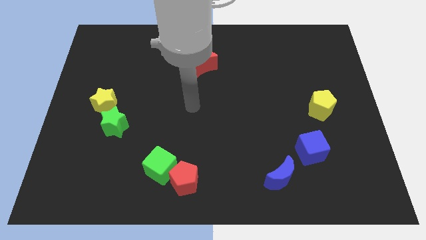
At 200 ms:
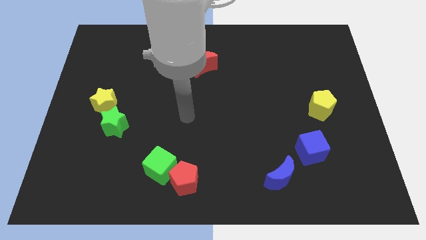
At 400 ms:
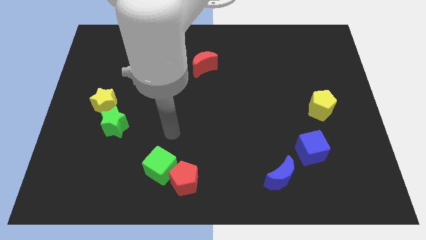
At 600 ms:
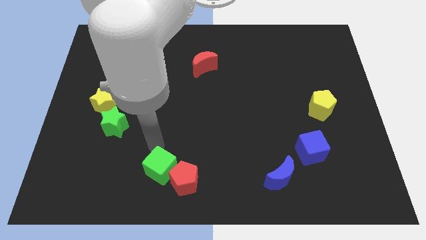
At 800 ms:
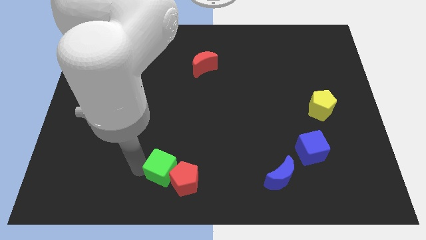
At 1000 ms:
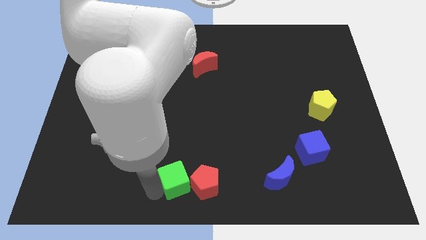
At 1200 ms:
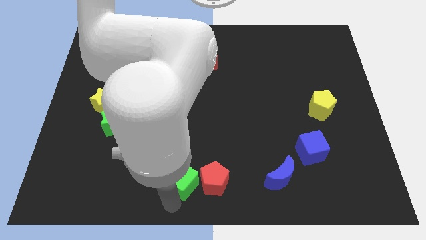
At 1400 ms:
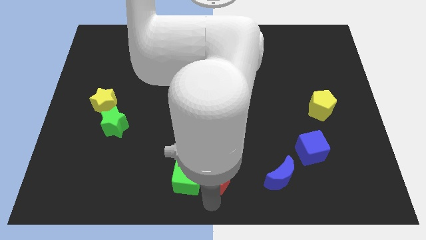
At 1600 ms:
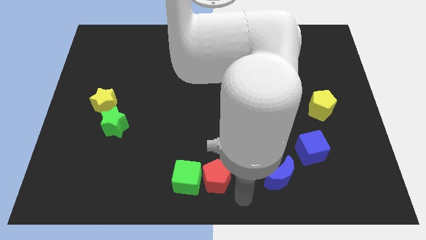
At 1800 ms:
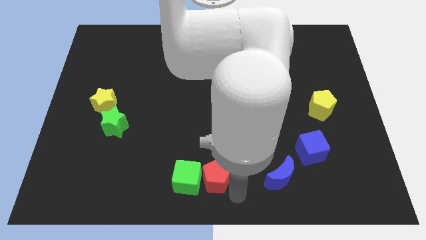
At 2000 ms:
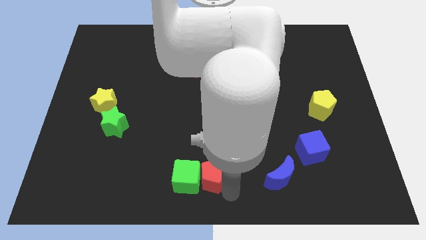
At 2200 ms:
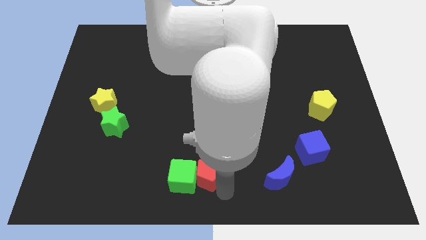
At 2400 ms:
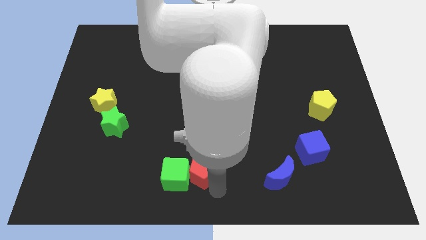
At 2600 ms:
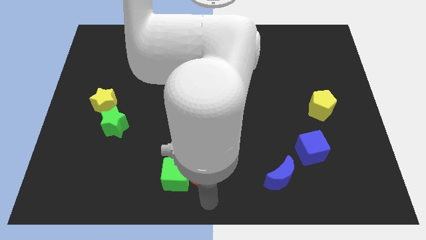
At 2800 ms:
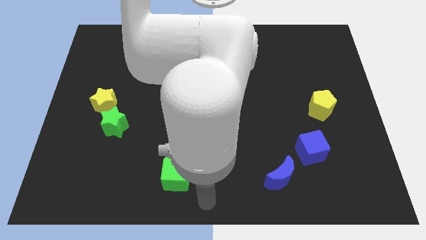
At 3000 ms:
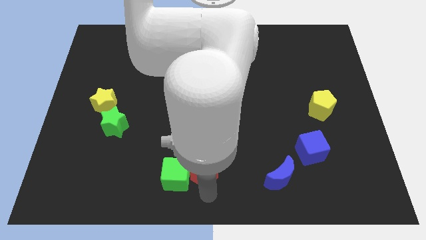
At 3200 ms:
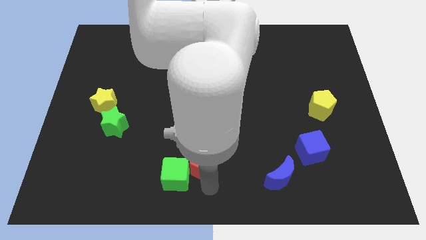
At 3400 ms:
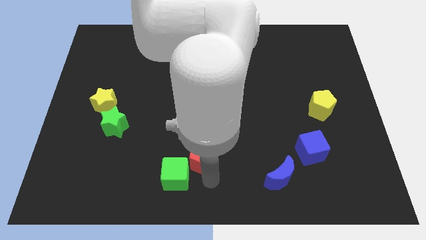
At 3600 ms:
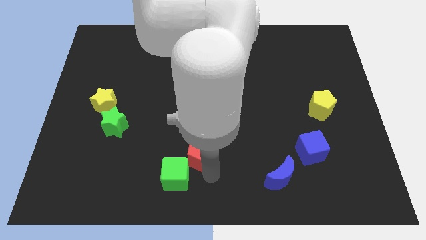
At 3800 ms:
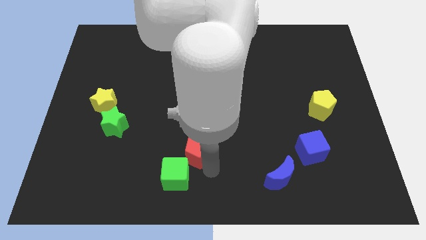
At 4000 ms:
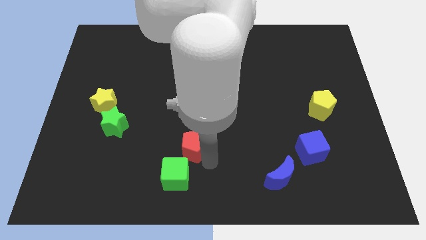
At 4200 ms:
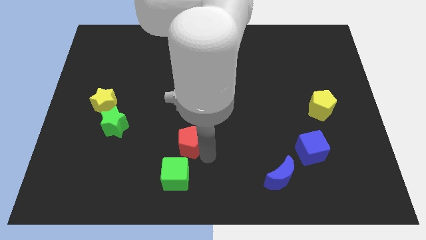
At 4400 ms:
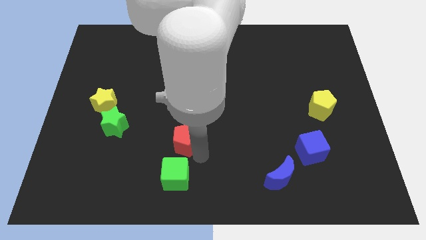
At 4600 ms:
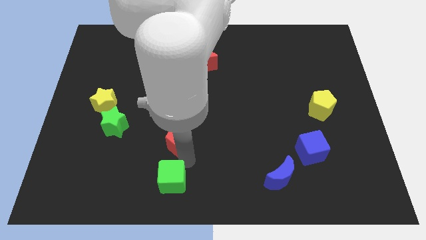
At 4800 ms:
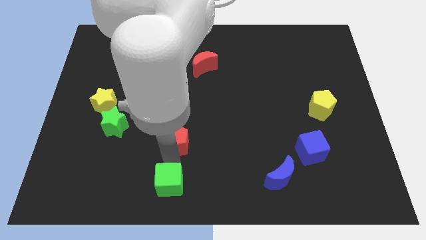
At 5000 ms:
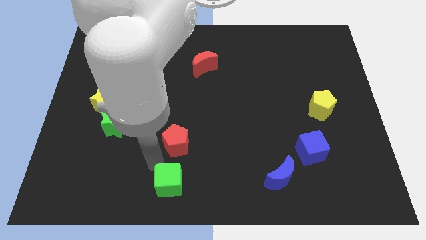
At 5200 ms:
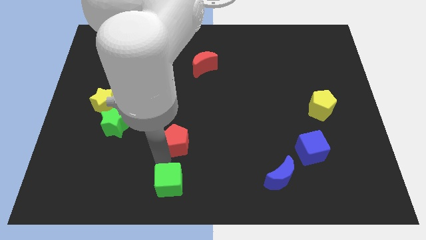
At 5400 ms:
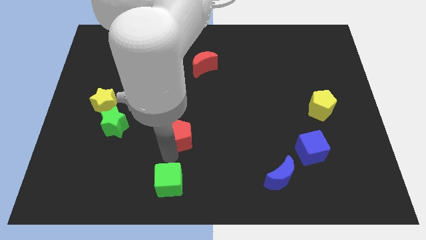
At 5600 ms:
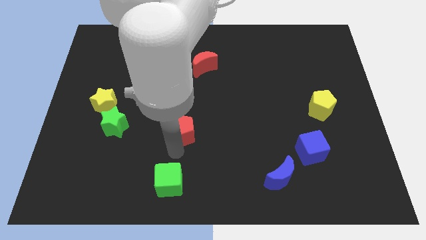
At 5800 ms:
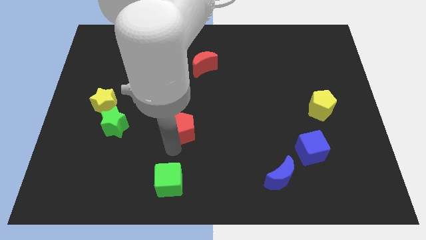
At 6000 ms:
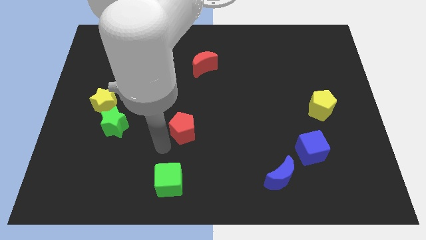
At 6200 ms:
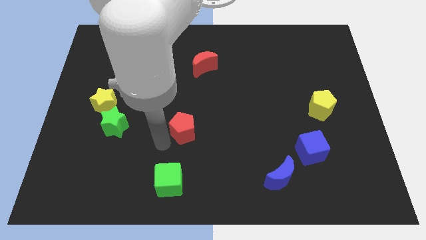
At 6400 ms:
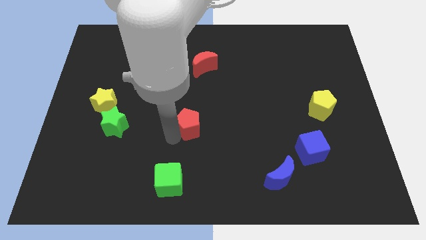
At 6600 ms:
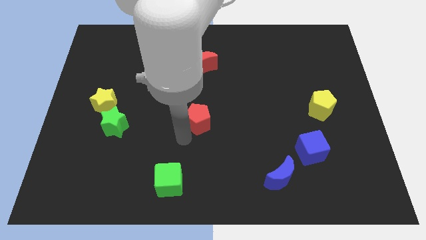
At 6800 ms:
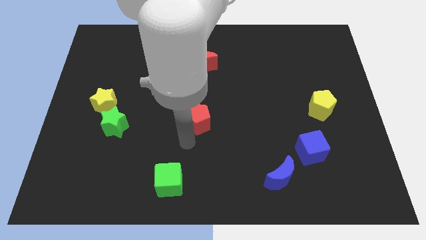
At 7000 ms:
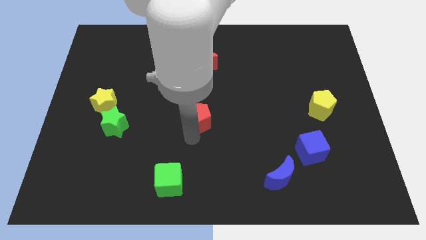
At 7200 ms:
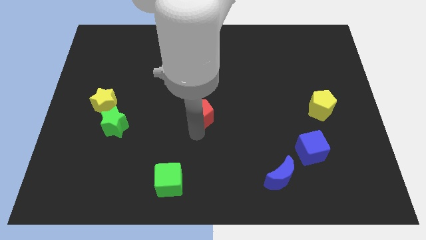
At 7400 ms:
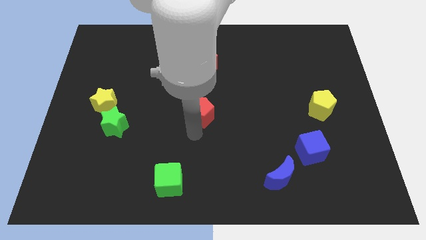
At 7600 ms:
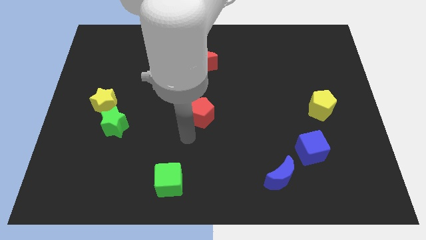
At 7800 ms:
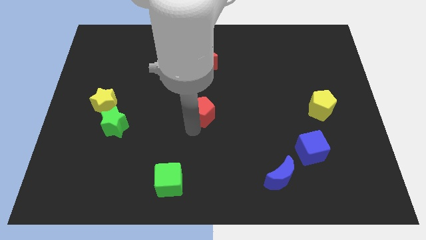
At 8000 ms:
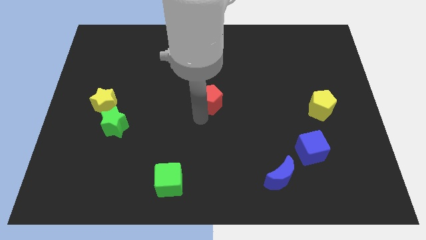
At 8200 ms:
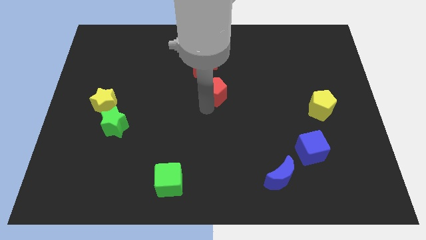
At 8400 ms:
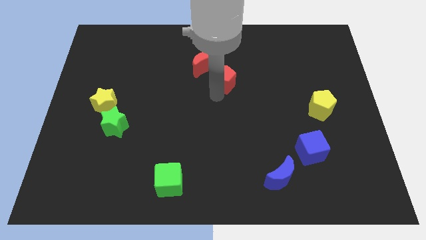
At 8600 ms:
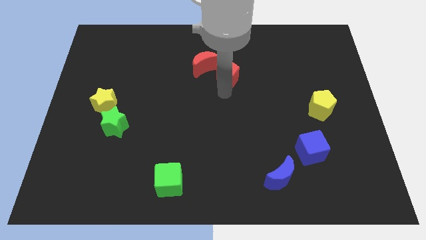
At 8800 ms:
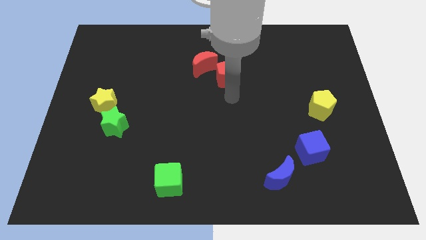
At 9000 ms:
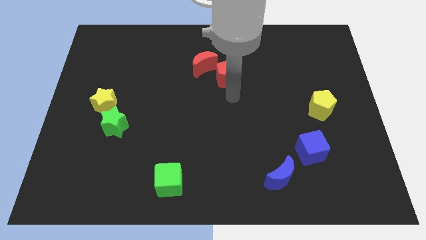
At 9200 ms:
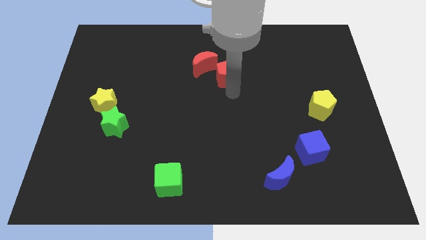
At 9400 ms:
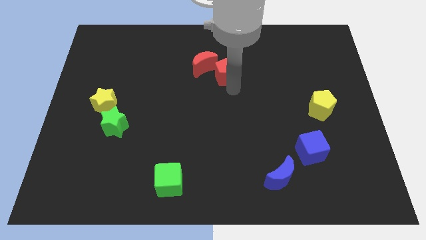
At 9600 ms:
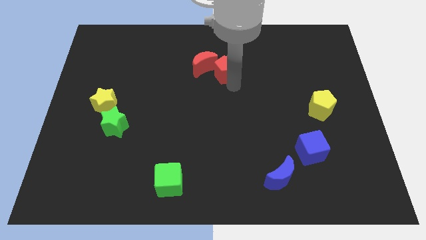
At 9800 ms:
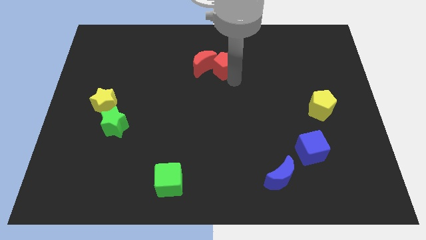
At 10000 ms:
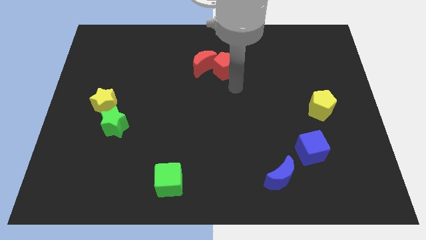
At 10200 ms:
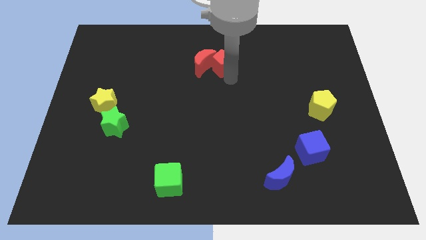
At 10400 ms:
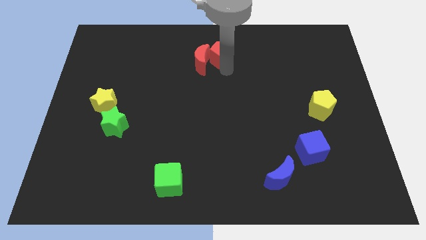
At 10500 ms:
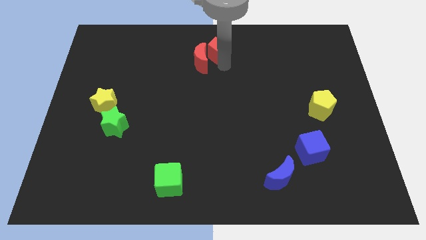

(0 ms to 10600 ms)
put the red pentagon to the towards your base
